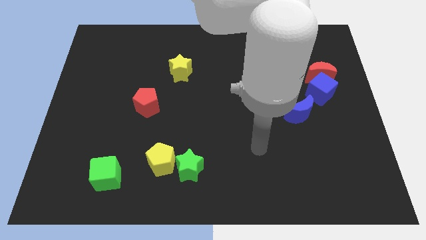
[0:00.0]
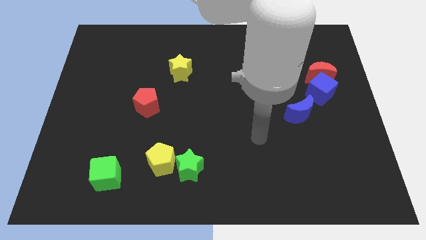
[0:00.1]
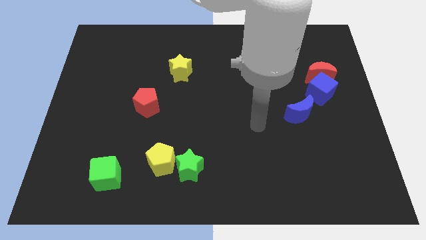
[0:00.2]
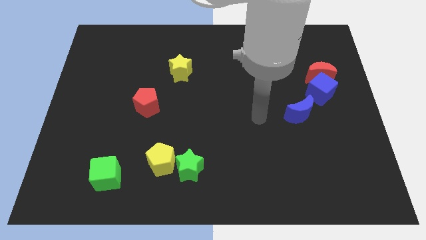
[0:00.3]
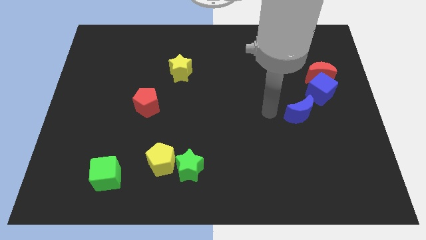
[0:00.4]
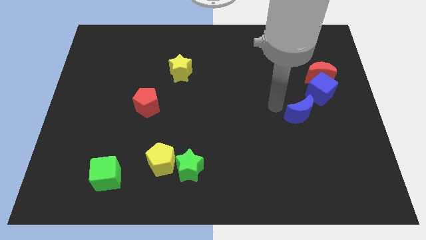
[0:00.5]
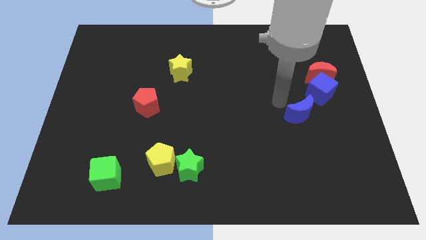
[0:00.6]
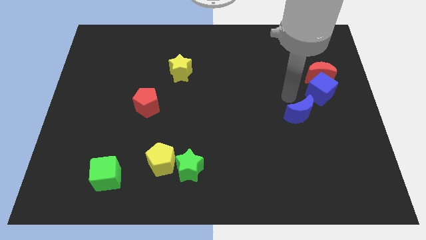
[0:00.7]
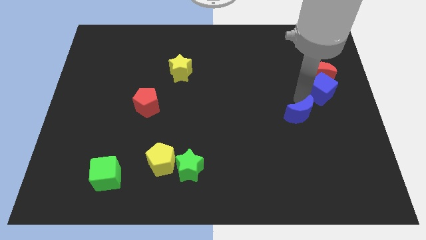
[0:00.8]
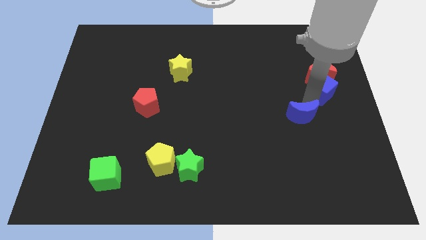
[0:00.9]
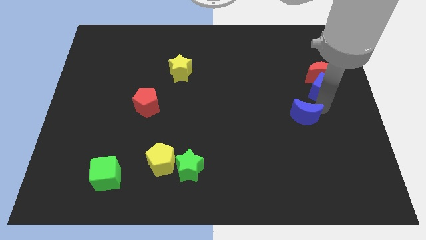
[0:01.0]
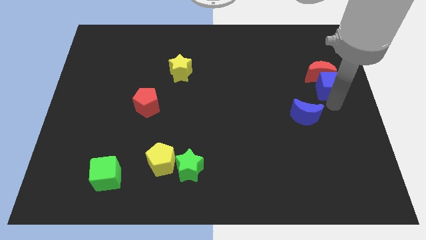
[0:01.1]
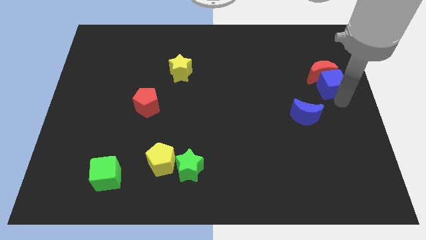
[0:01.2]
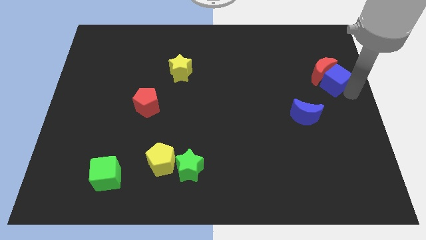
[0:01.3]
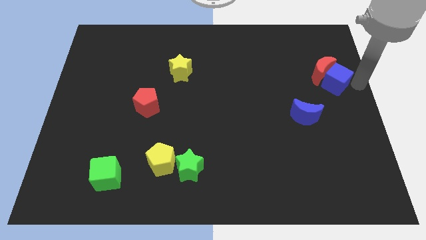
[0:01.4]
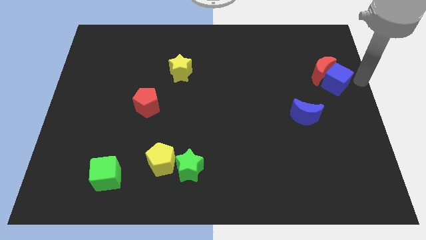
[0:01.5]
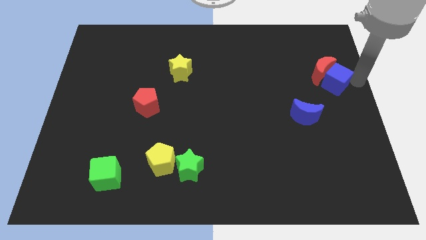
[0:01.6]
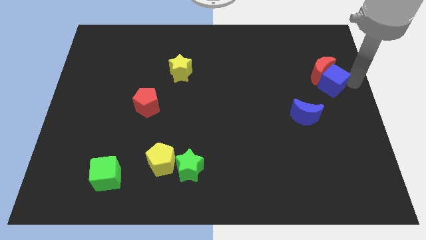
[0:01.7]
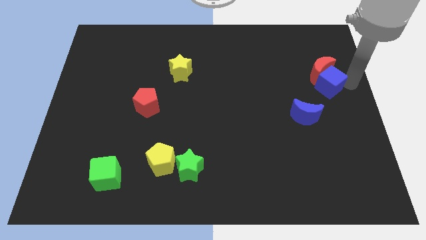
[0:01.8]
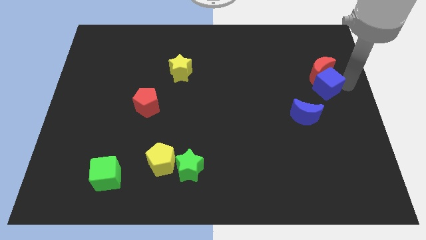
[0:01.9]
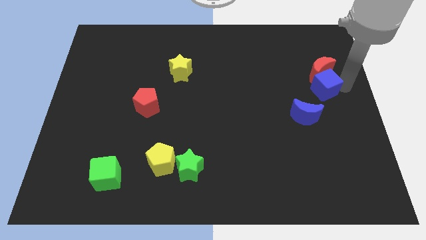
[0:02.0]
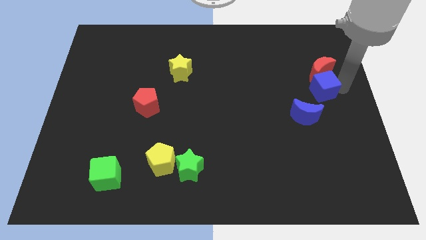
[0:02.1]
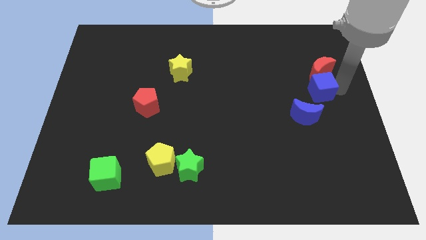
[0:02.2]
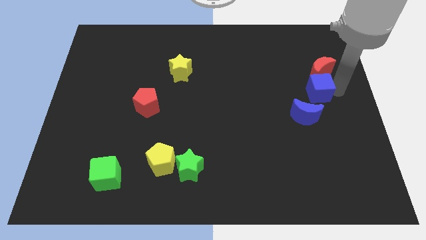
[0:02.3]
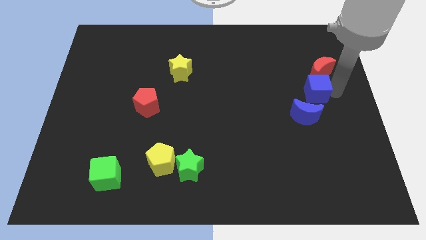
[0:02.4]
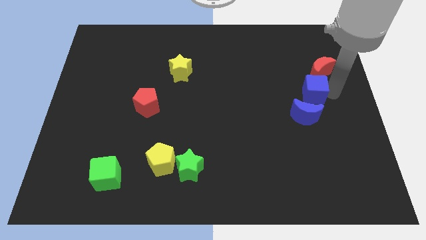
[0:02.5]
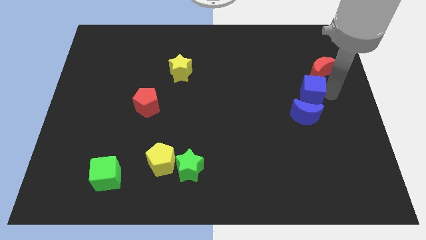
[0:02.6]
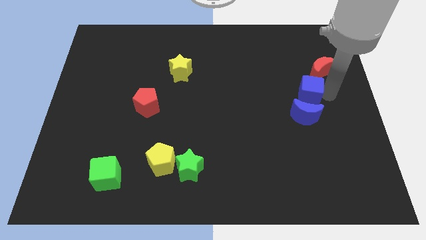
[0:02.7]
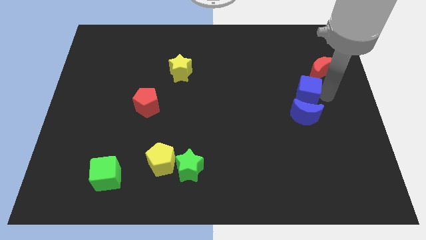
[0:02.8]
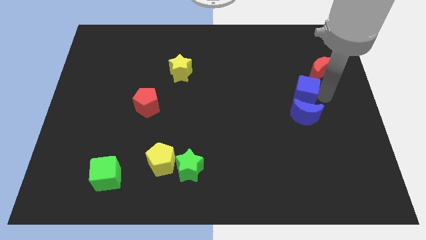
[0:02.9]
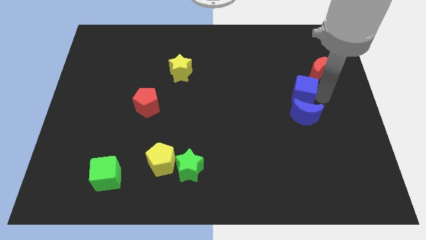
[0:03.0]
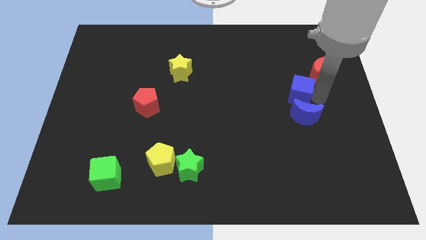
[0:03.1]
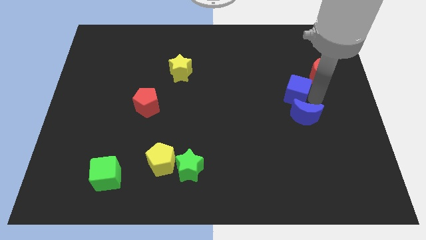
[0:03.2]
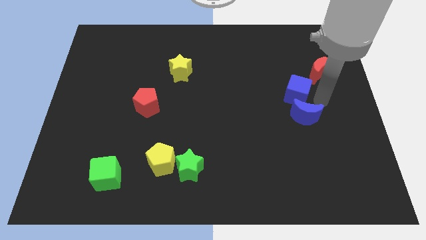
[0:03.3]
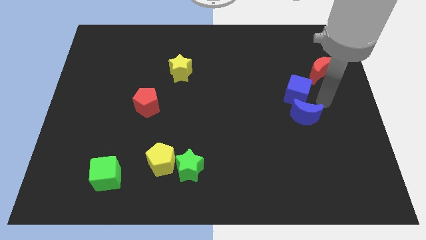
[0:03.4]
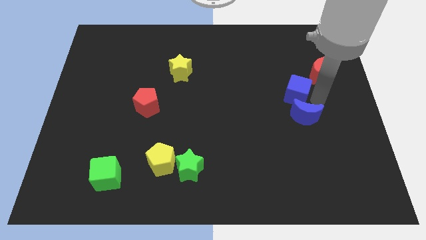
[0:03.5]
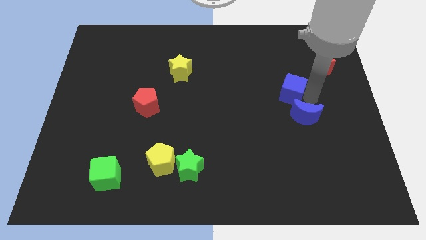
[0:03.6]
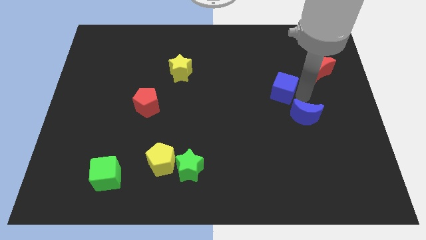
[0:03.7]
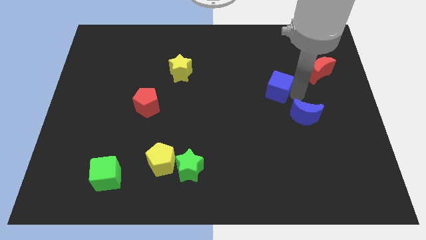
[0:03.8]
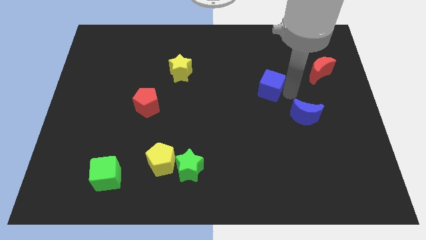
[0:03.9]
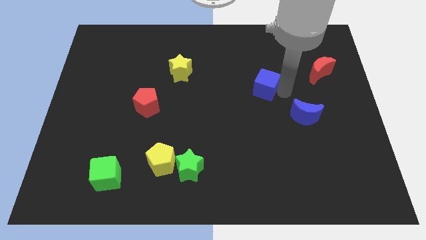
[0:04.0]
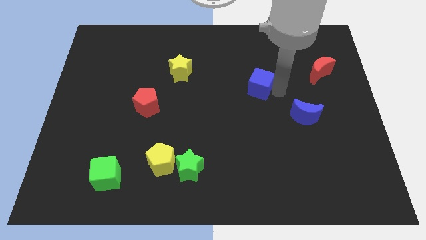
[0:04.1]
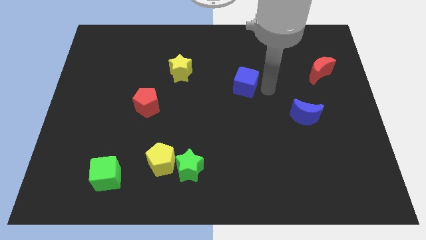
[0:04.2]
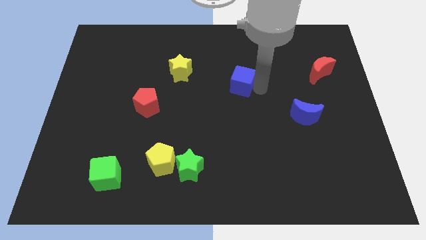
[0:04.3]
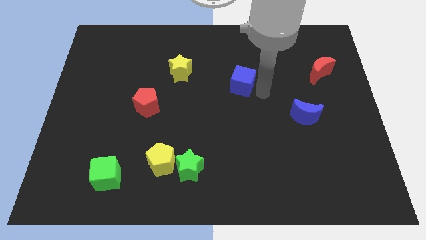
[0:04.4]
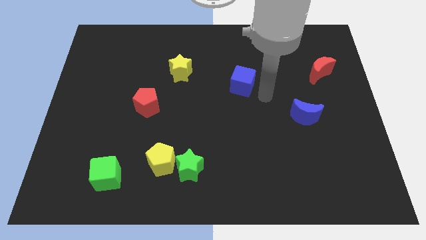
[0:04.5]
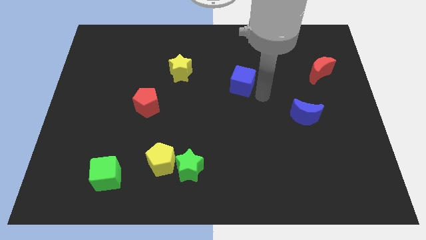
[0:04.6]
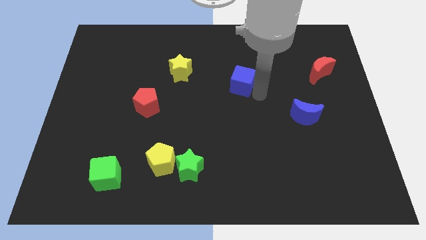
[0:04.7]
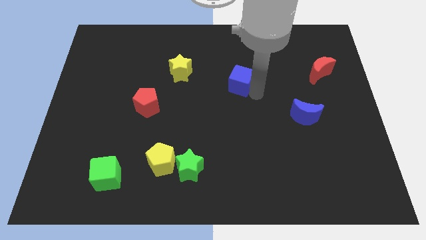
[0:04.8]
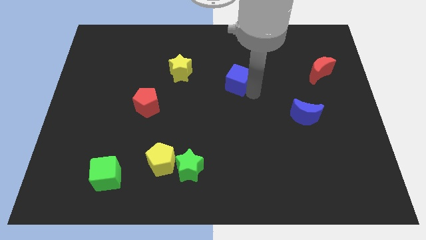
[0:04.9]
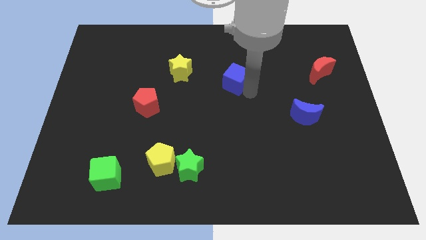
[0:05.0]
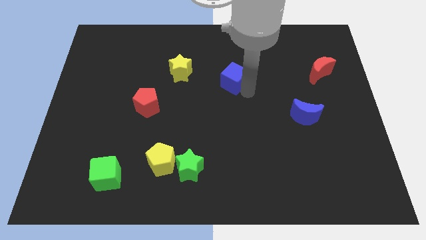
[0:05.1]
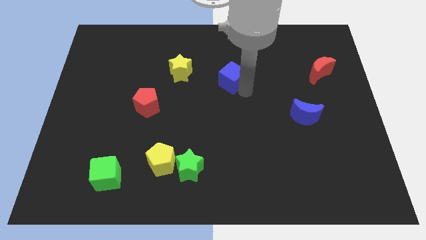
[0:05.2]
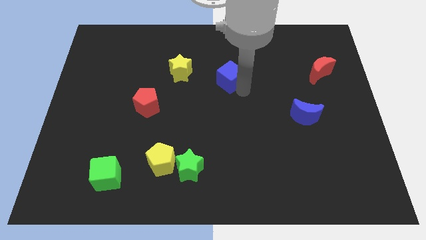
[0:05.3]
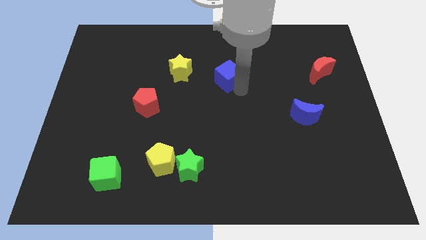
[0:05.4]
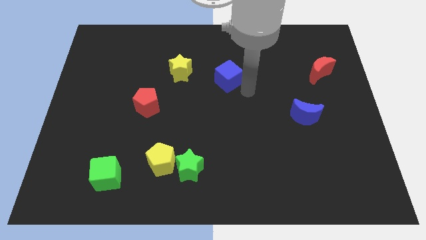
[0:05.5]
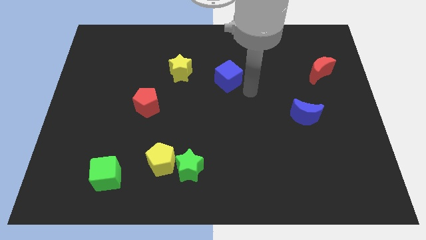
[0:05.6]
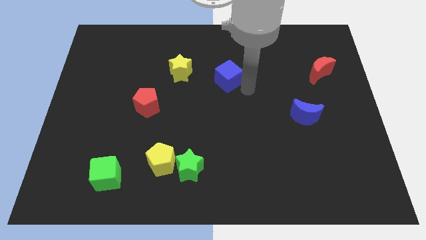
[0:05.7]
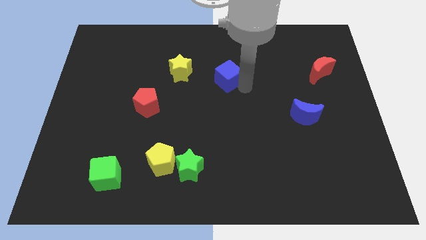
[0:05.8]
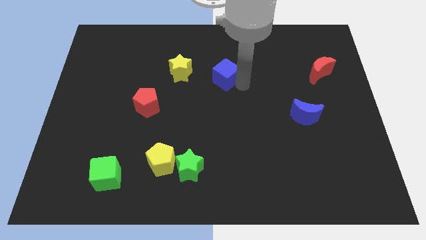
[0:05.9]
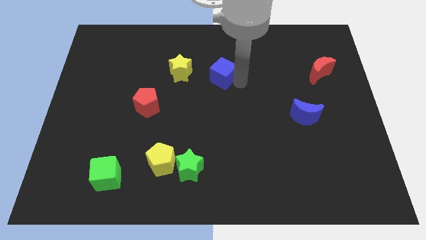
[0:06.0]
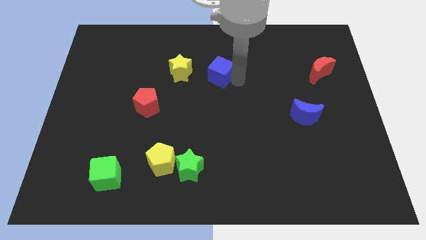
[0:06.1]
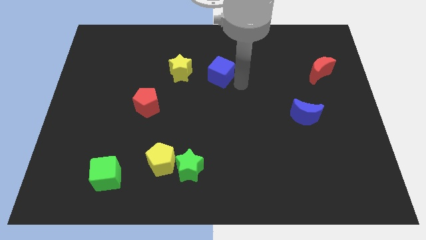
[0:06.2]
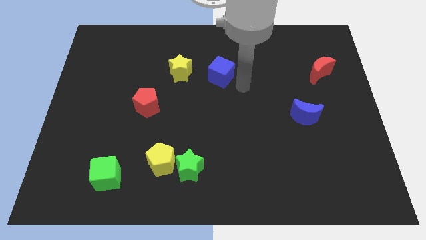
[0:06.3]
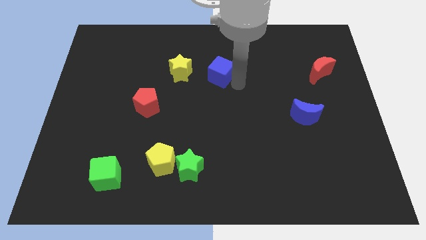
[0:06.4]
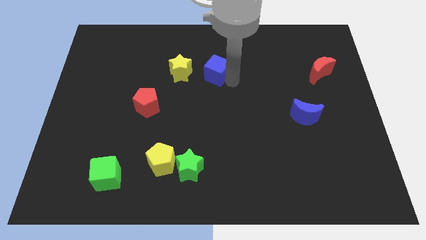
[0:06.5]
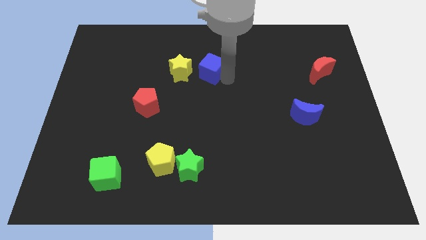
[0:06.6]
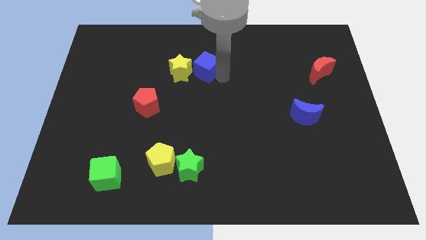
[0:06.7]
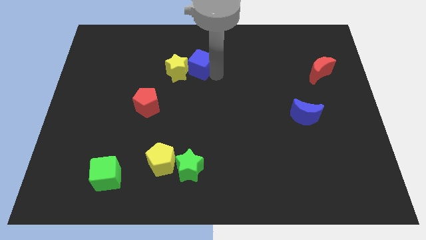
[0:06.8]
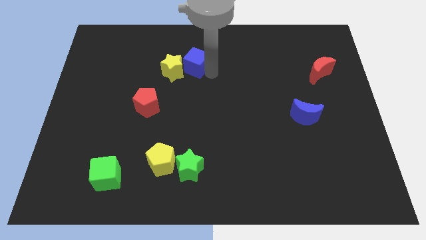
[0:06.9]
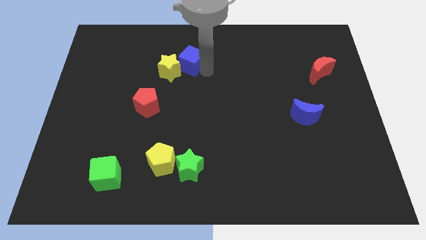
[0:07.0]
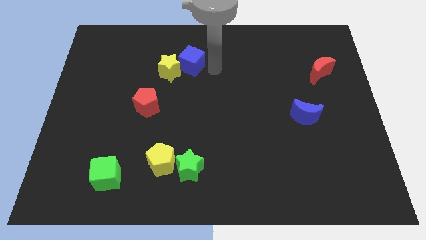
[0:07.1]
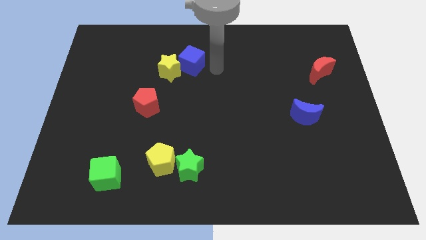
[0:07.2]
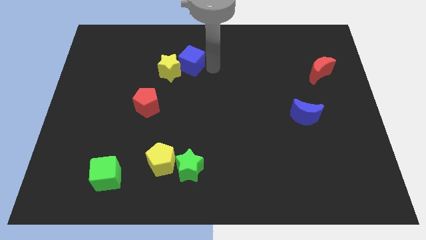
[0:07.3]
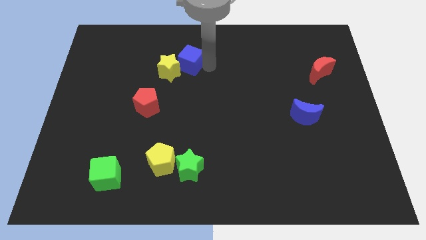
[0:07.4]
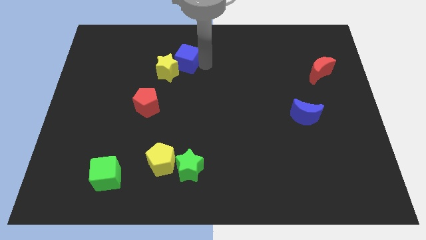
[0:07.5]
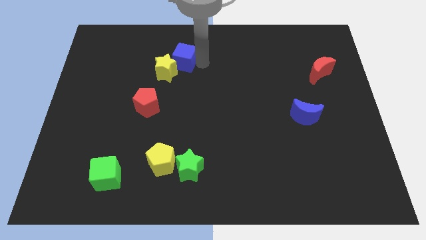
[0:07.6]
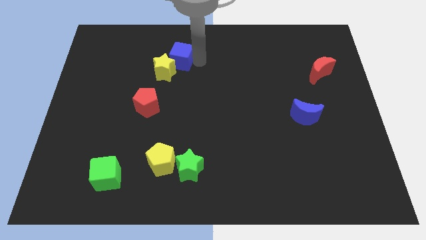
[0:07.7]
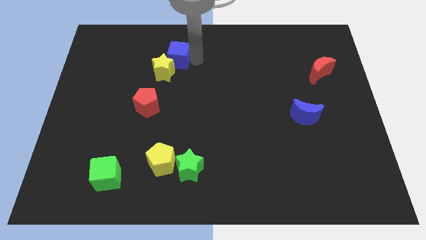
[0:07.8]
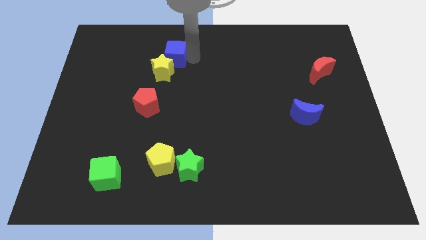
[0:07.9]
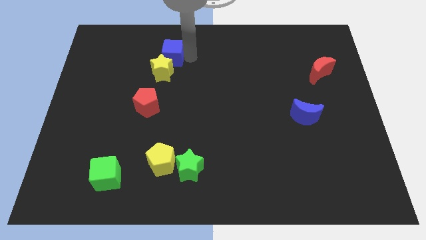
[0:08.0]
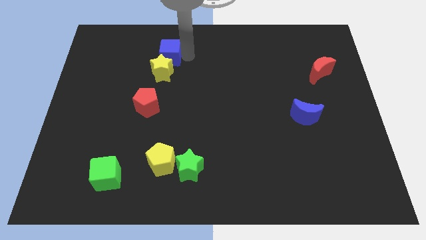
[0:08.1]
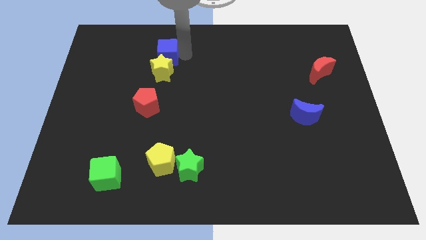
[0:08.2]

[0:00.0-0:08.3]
slide the blue cube diagonally up and to the left of the yellow star
